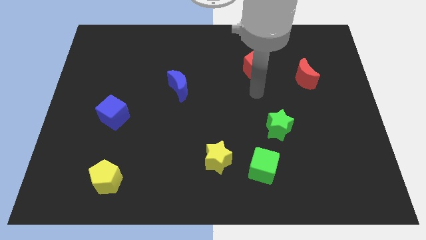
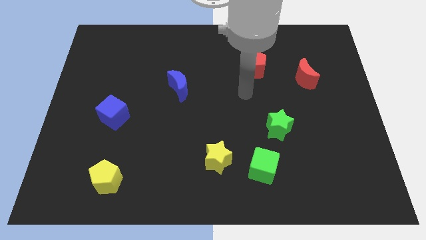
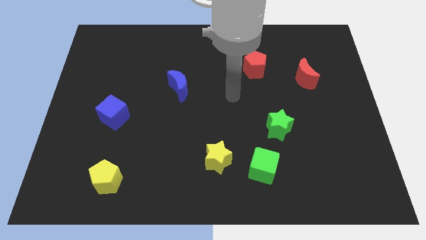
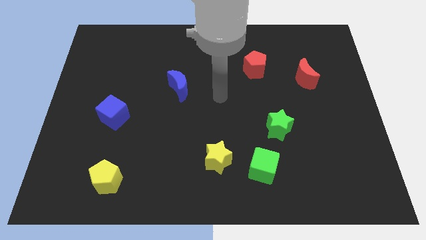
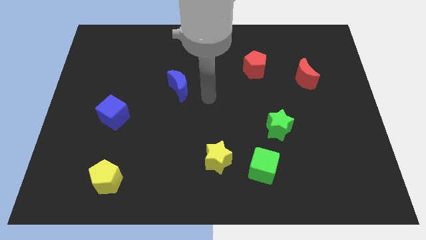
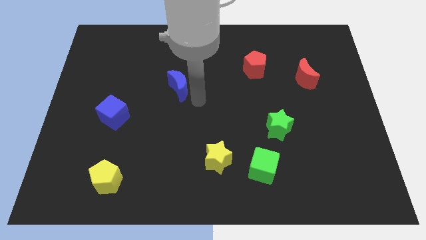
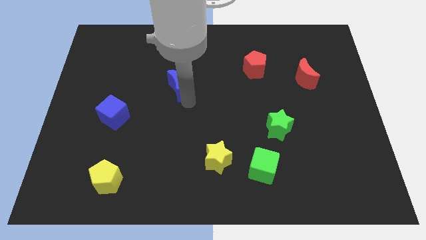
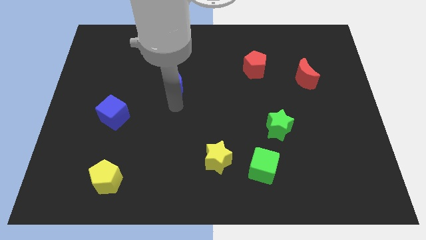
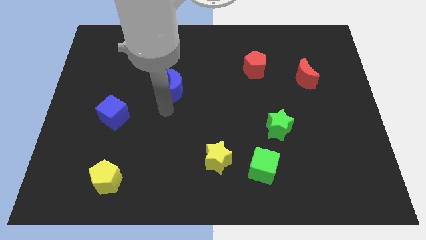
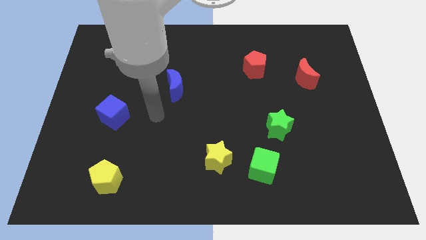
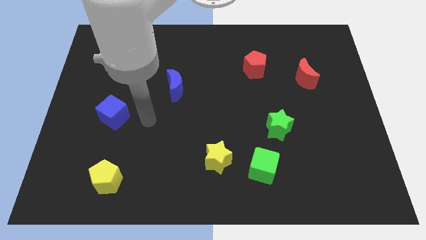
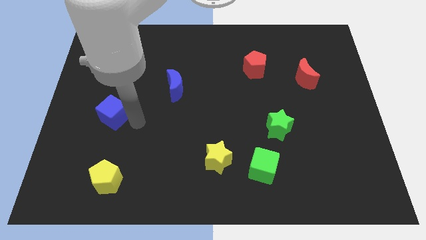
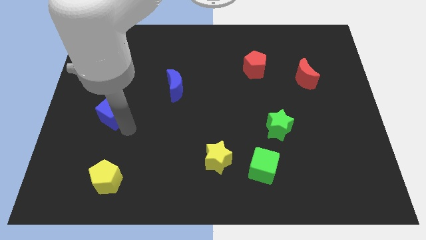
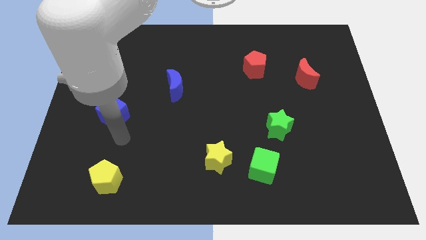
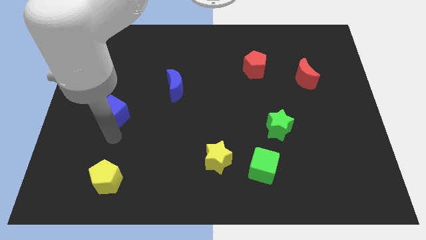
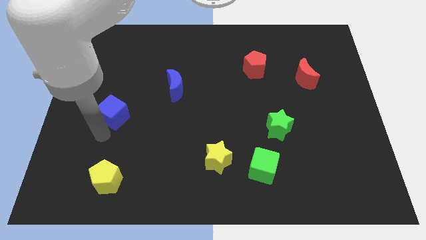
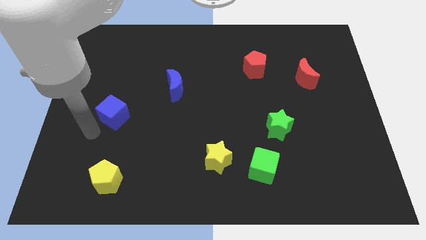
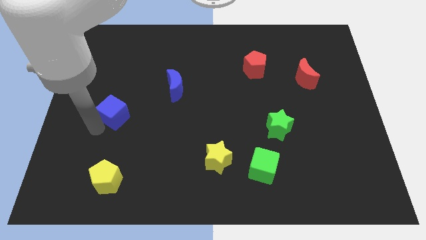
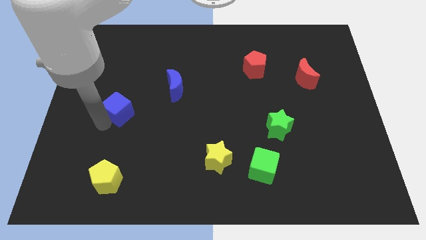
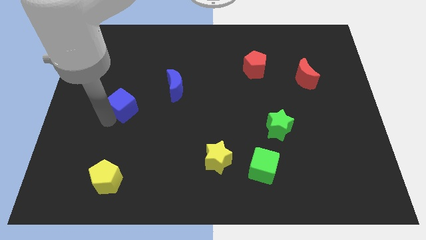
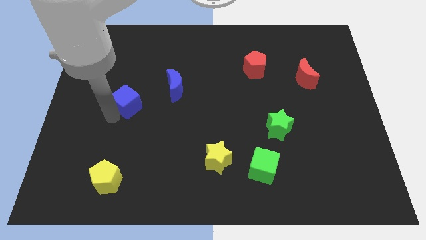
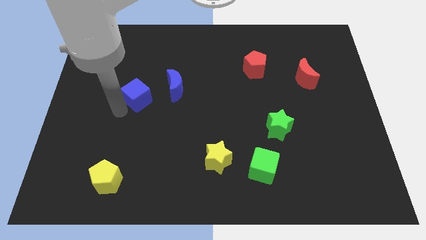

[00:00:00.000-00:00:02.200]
push the blue cube slightly up and to the right

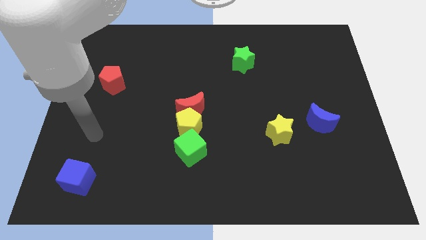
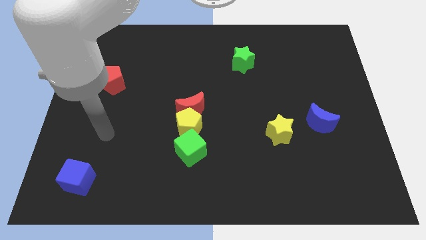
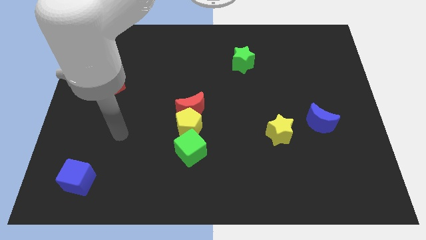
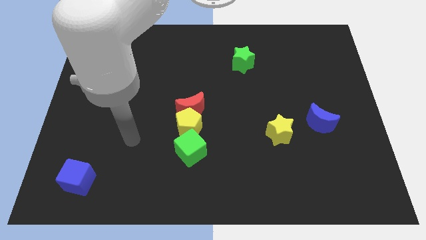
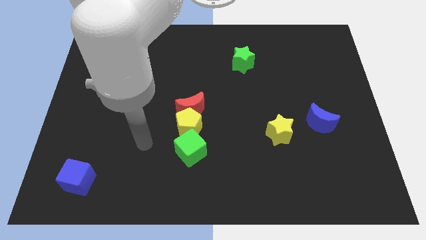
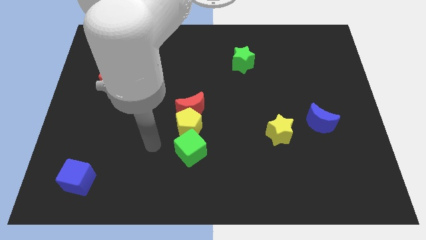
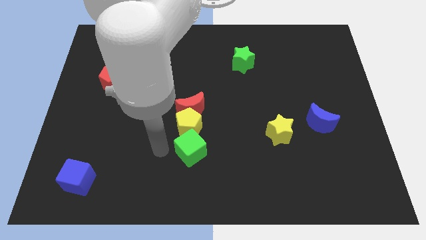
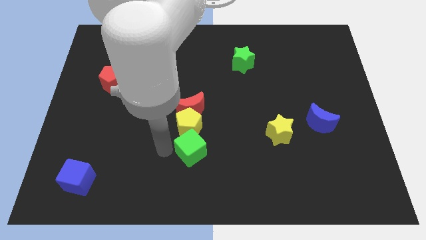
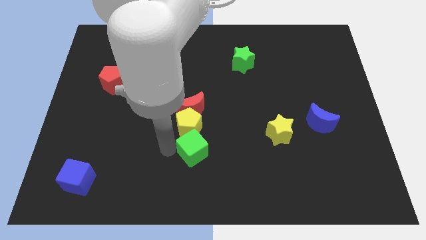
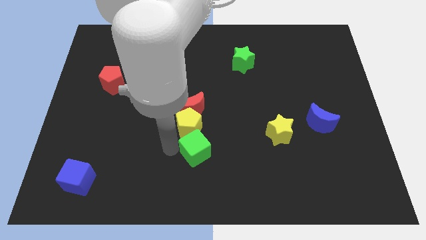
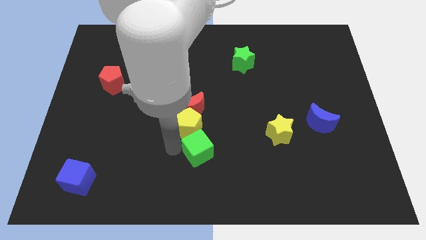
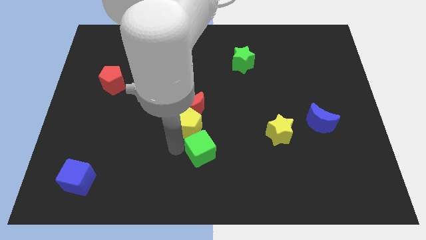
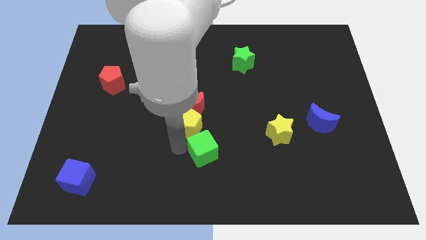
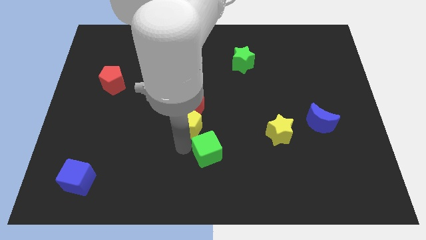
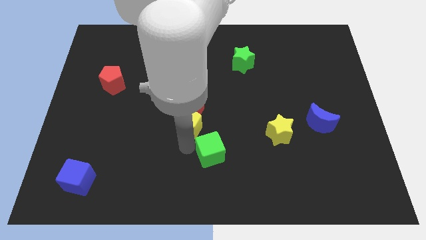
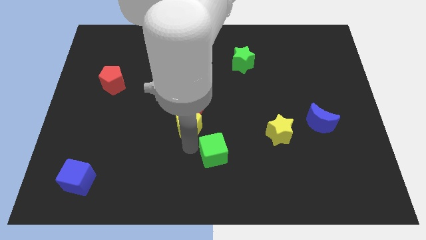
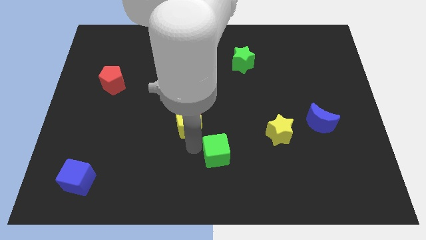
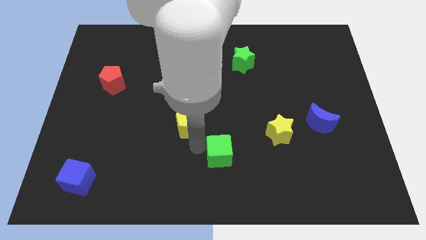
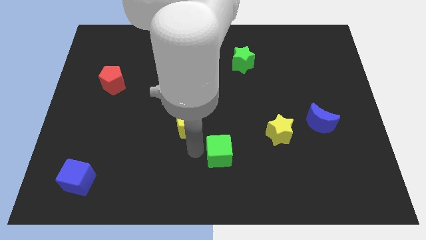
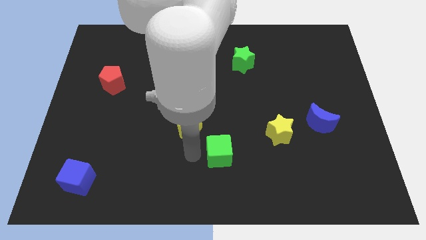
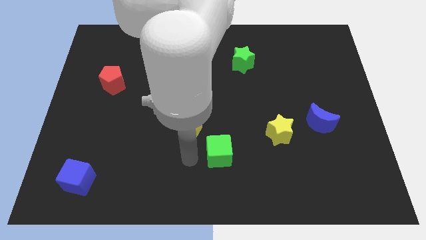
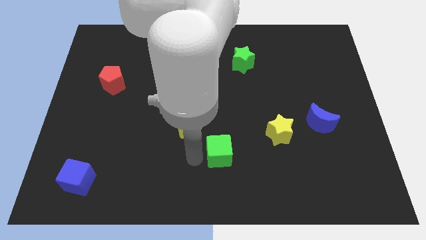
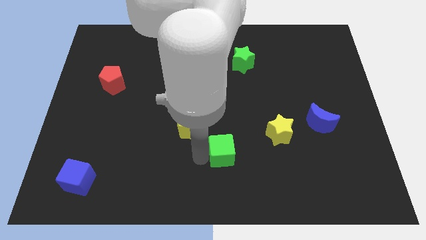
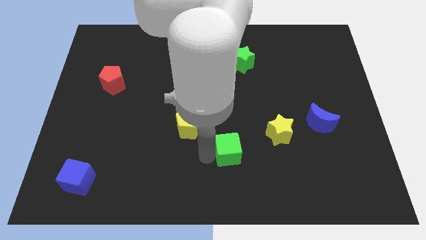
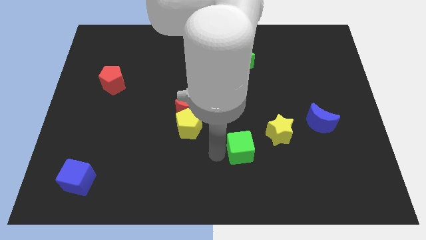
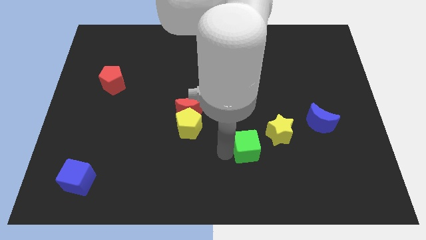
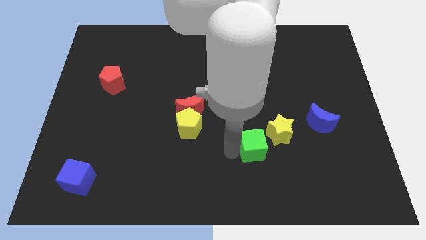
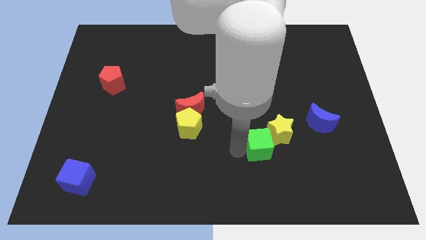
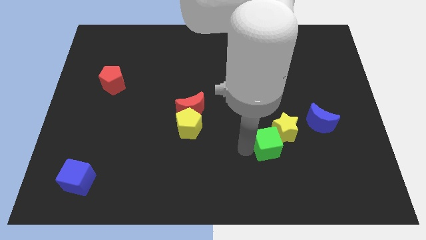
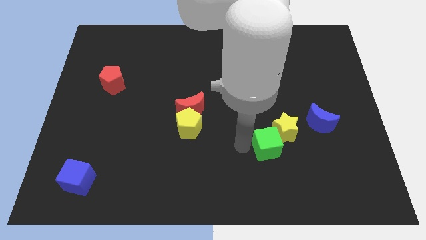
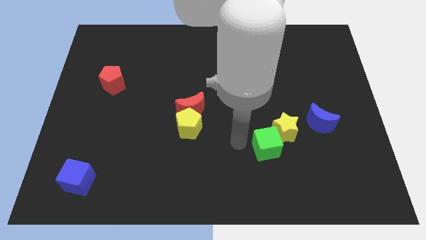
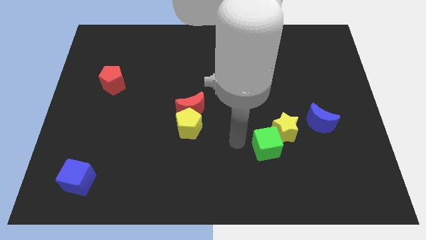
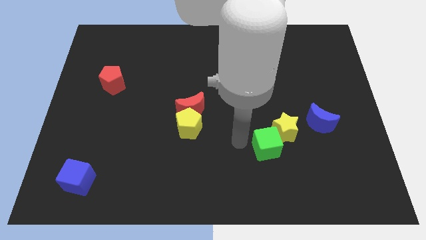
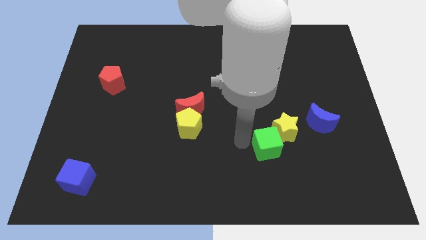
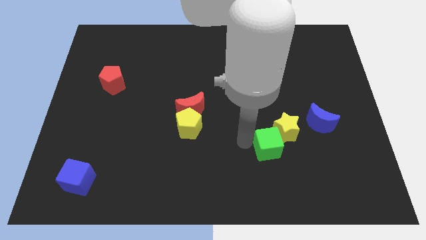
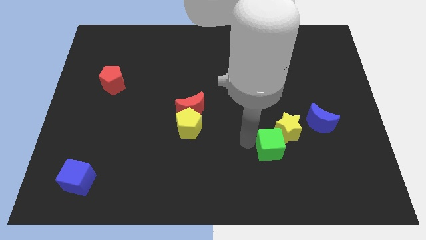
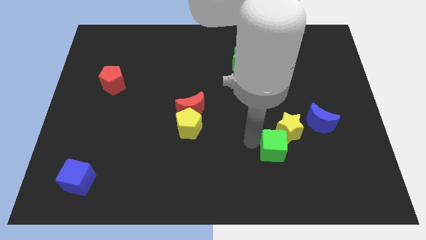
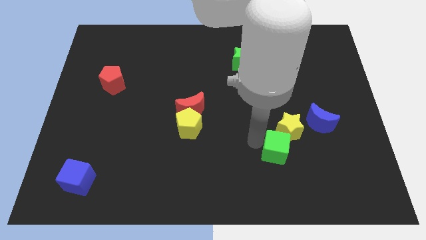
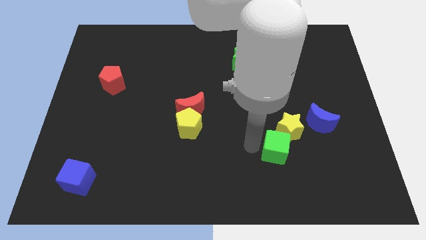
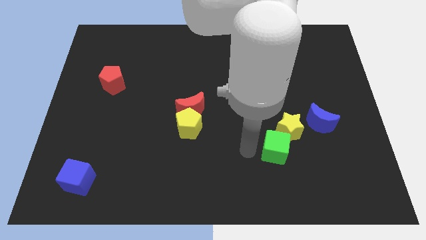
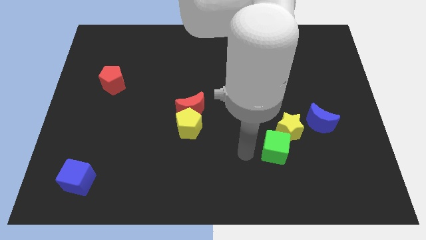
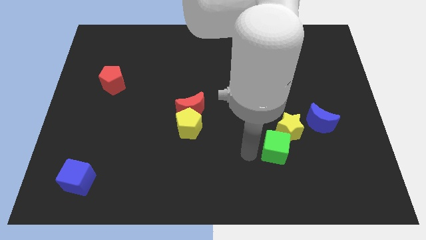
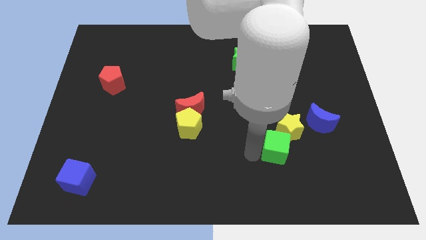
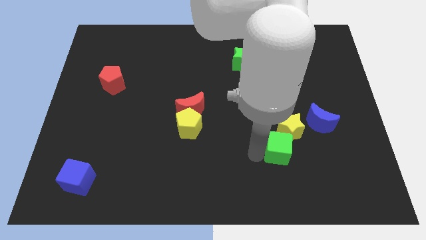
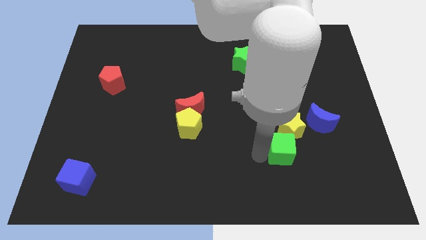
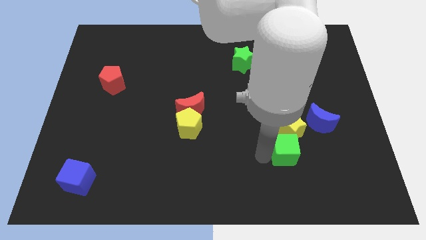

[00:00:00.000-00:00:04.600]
move the green cube right

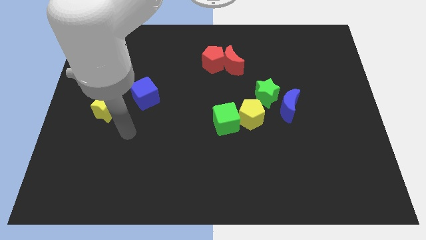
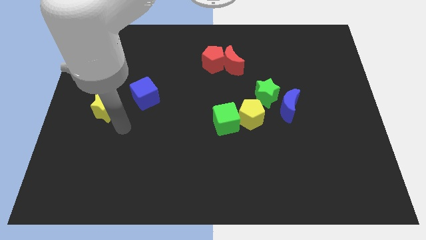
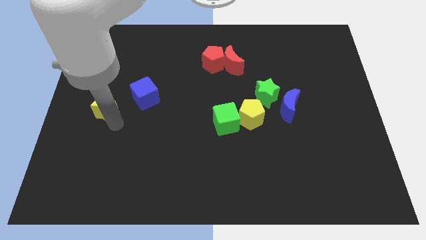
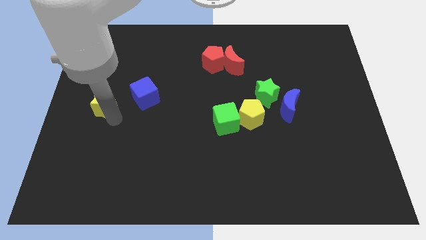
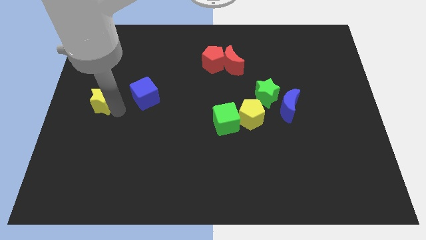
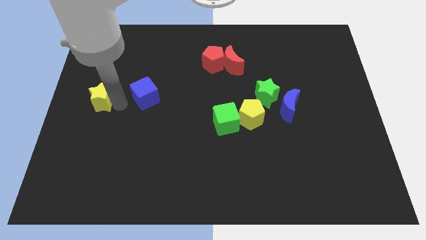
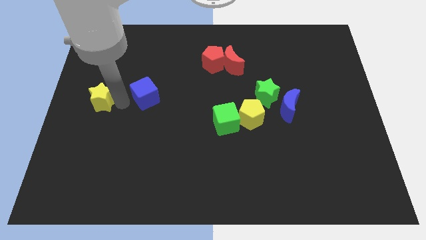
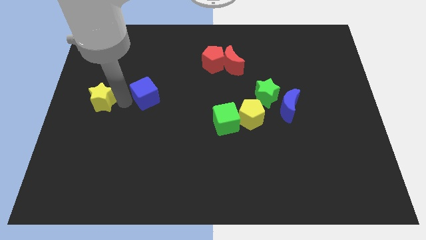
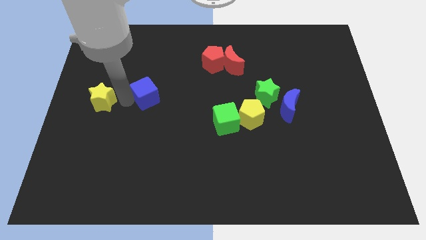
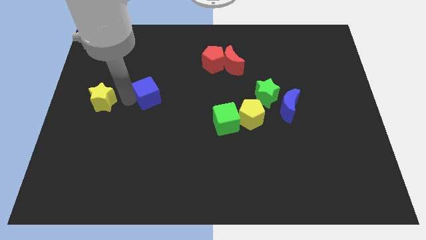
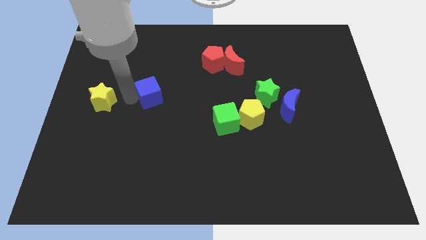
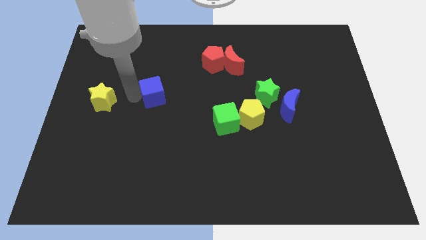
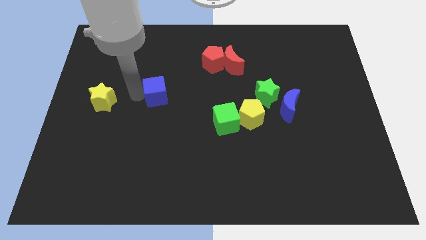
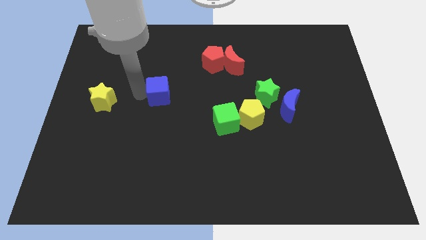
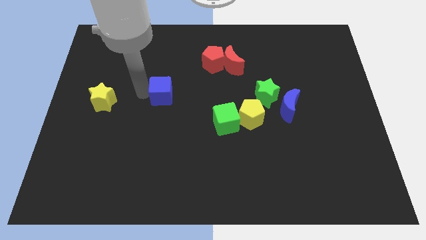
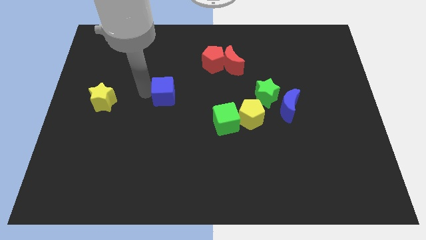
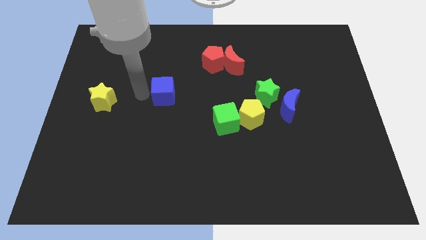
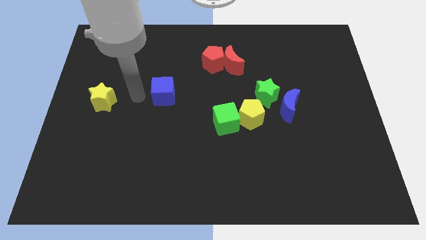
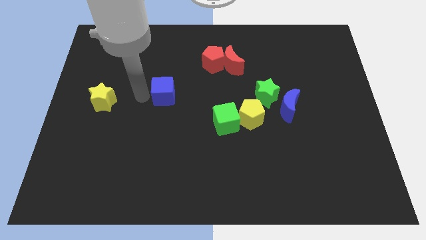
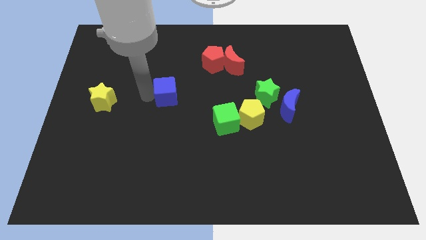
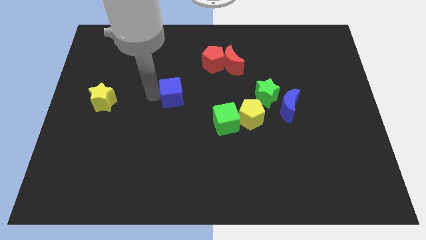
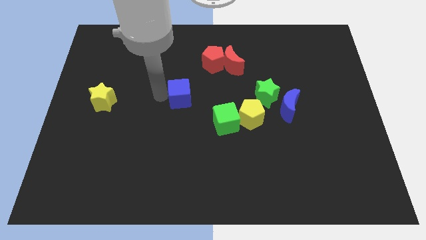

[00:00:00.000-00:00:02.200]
slightly slide the blue cube to the right
